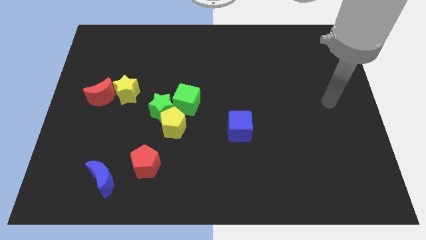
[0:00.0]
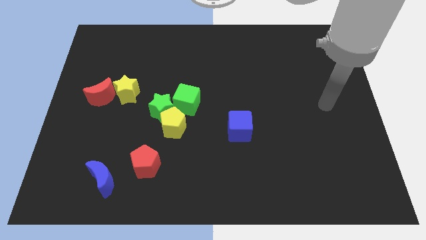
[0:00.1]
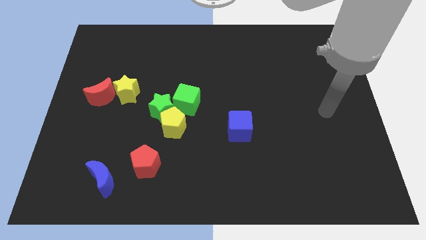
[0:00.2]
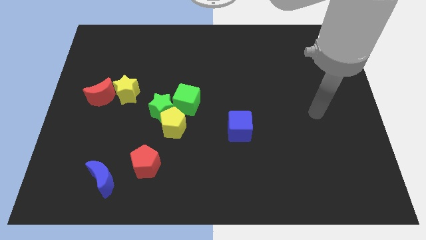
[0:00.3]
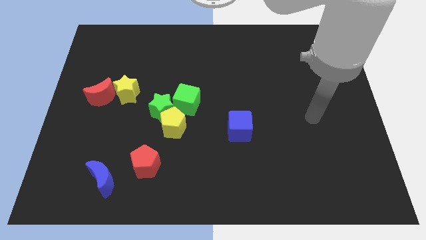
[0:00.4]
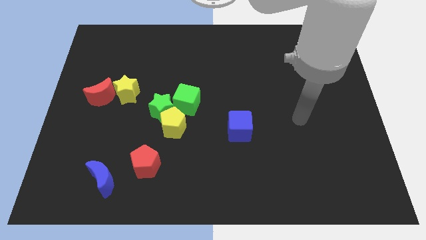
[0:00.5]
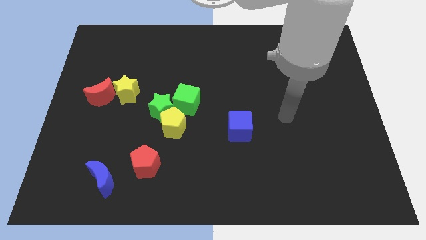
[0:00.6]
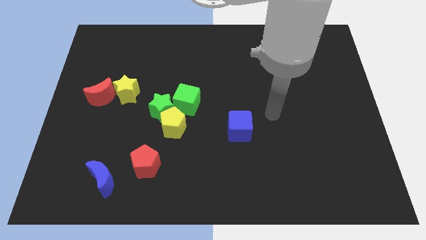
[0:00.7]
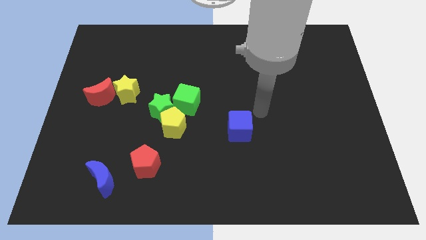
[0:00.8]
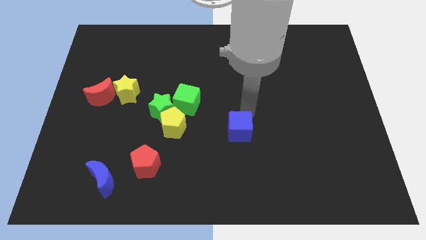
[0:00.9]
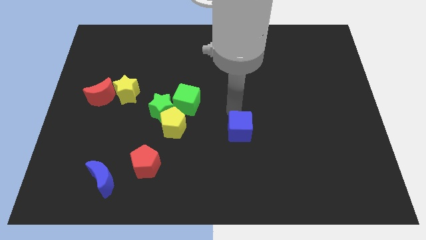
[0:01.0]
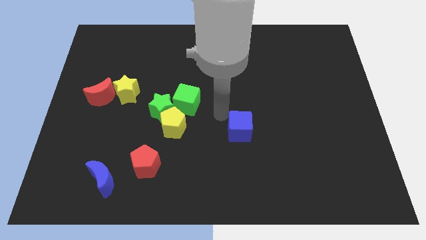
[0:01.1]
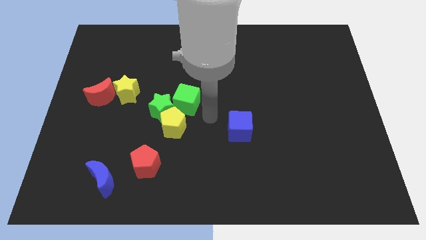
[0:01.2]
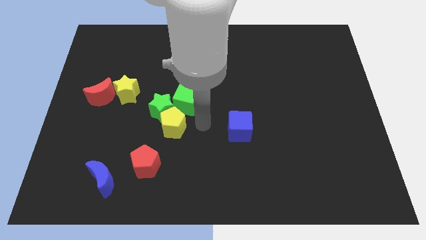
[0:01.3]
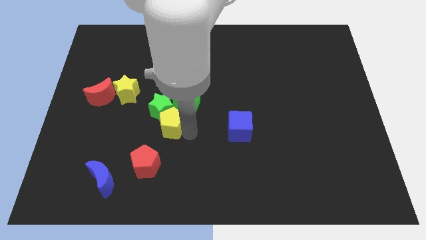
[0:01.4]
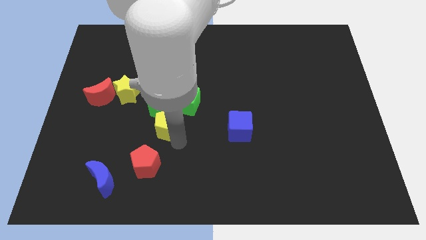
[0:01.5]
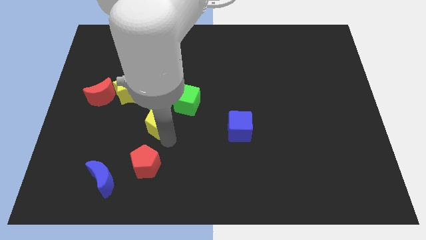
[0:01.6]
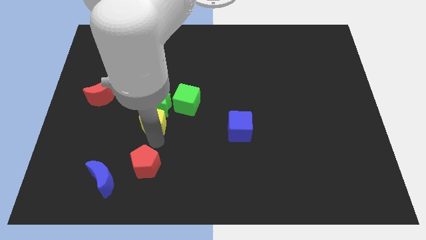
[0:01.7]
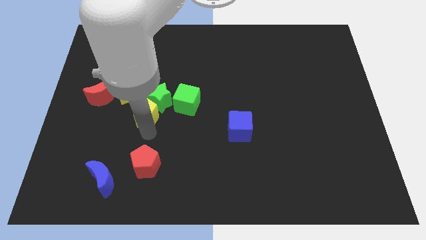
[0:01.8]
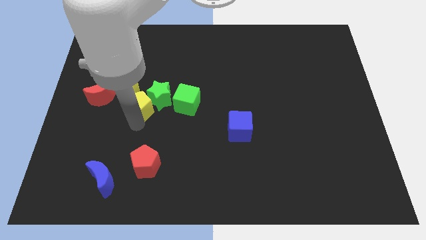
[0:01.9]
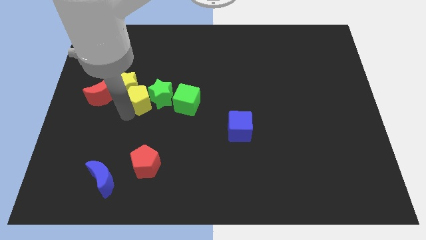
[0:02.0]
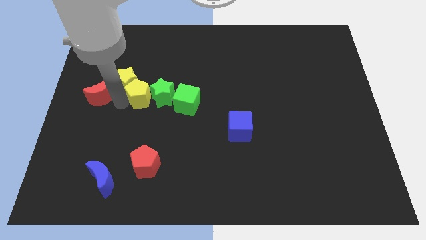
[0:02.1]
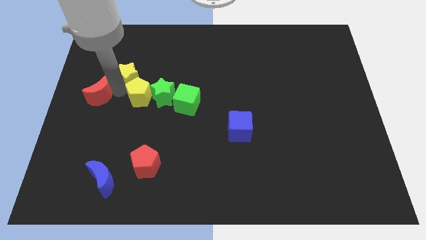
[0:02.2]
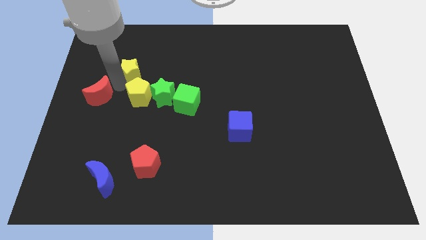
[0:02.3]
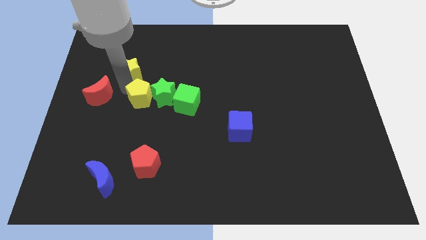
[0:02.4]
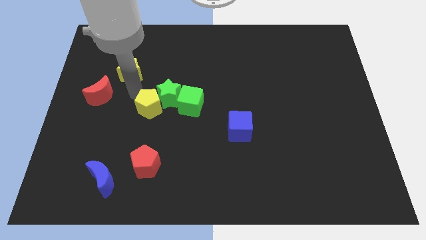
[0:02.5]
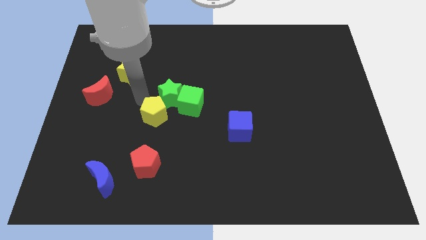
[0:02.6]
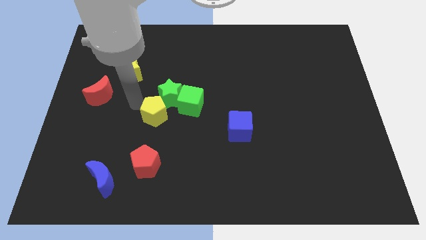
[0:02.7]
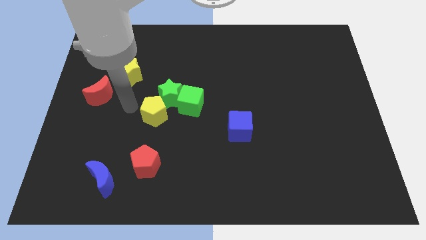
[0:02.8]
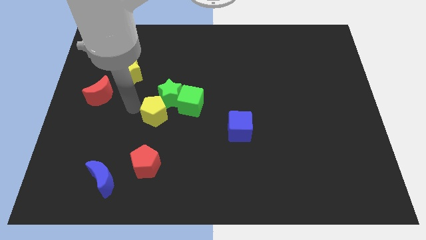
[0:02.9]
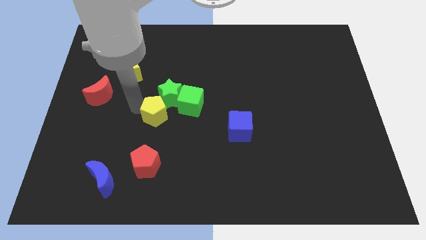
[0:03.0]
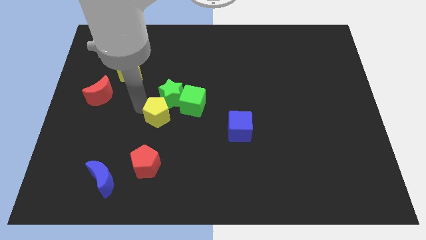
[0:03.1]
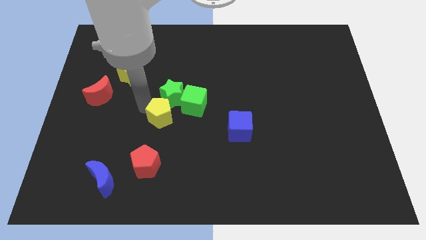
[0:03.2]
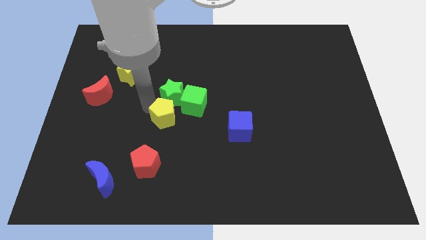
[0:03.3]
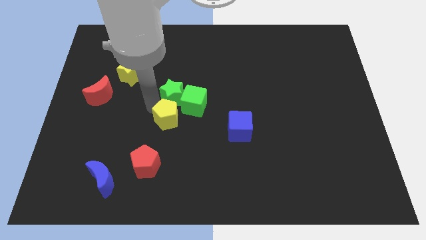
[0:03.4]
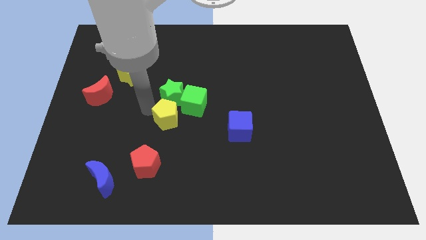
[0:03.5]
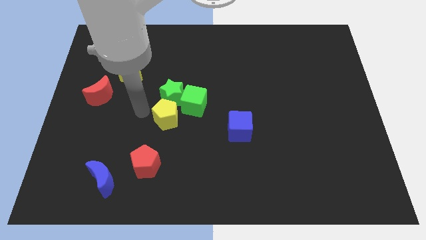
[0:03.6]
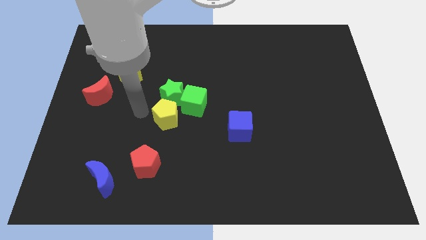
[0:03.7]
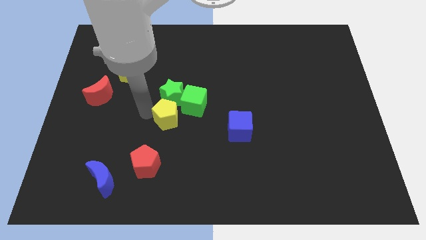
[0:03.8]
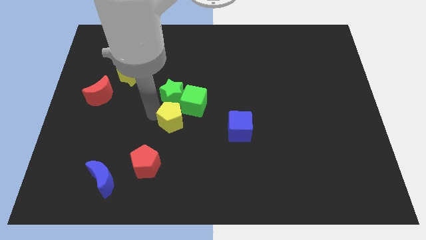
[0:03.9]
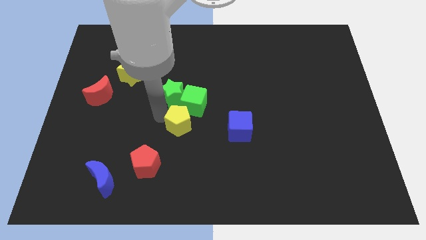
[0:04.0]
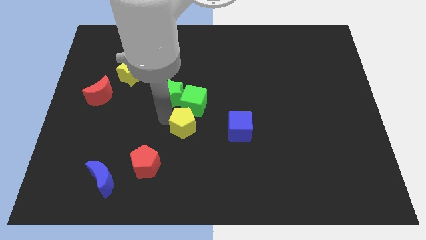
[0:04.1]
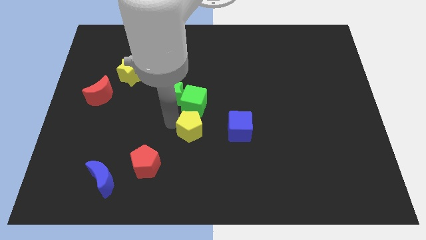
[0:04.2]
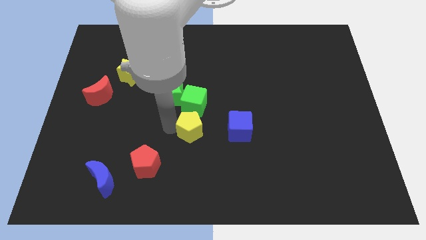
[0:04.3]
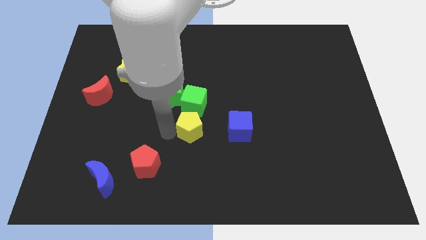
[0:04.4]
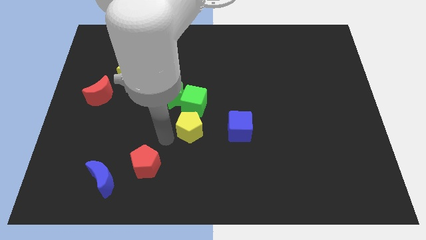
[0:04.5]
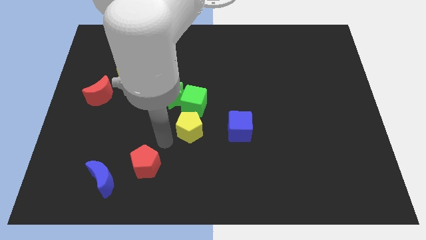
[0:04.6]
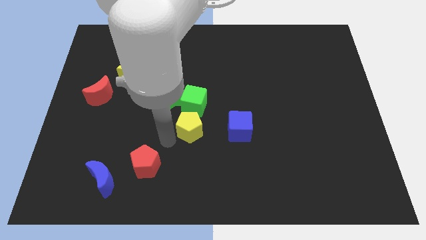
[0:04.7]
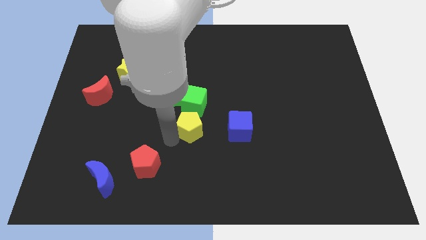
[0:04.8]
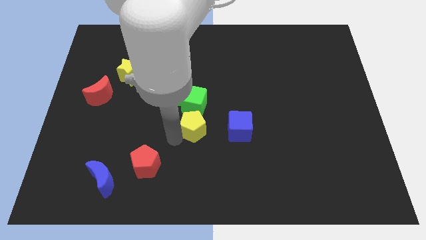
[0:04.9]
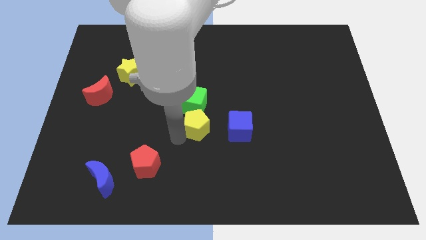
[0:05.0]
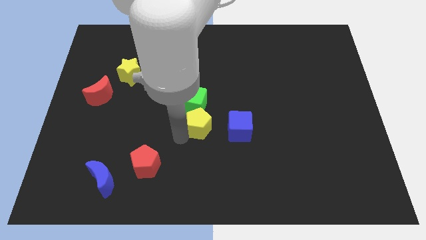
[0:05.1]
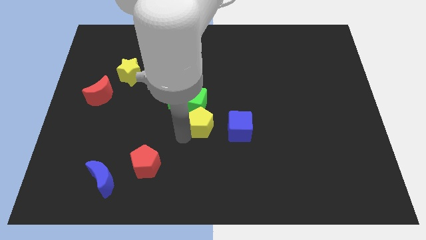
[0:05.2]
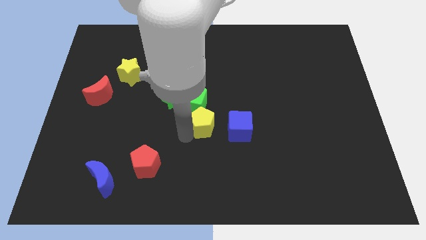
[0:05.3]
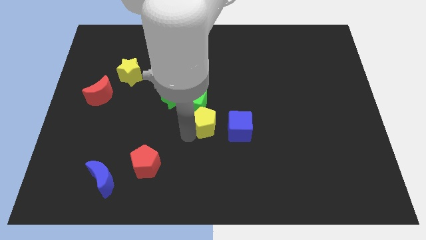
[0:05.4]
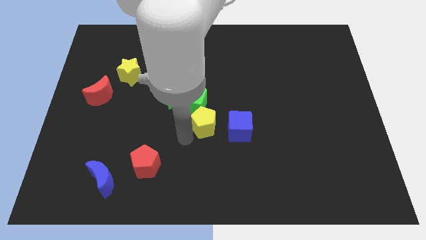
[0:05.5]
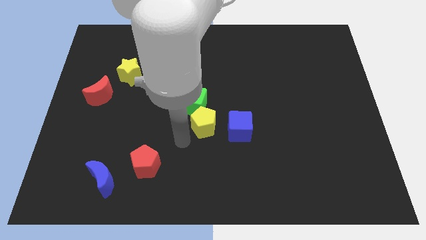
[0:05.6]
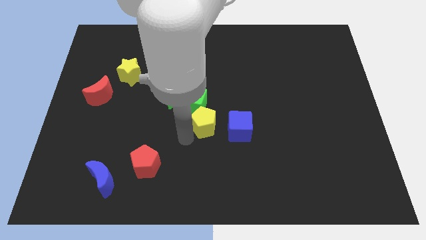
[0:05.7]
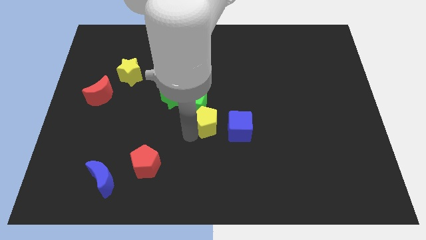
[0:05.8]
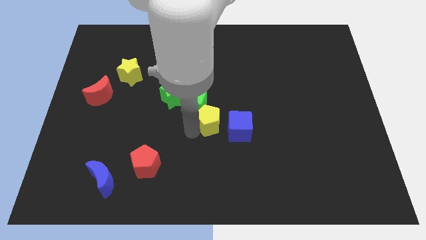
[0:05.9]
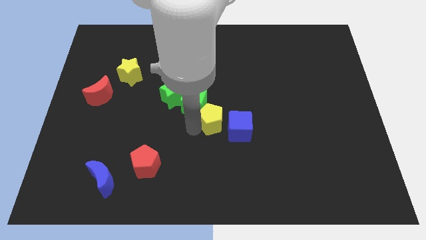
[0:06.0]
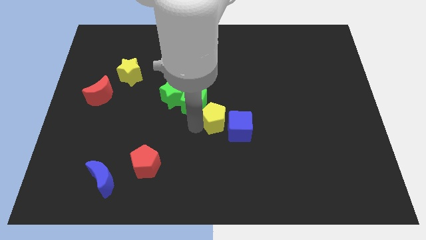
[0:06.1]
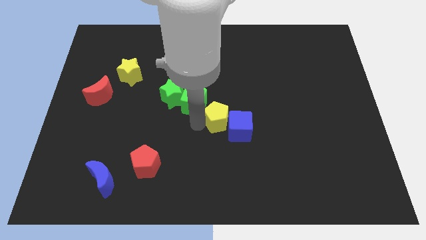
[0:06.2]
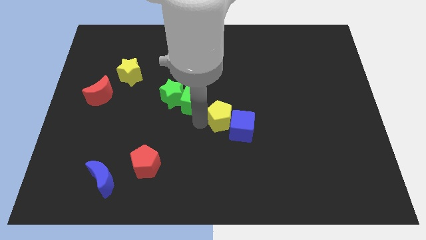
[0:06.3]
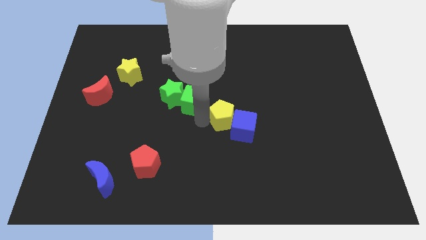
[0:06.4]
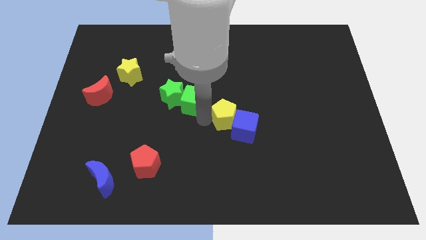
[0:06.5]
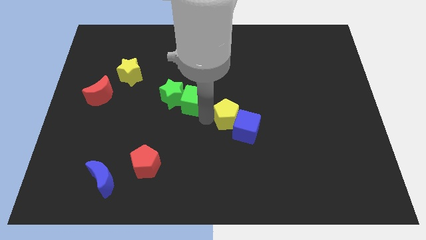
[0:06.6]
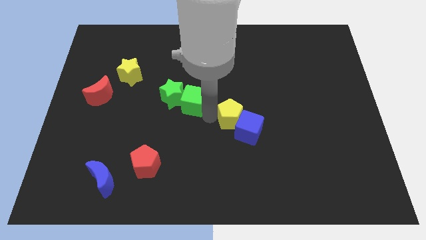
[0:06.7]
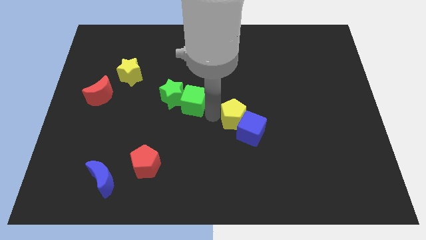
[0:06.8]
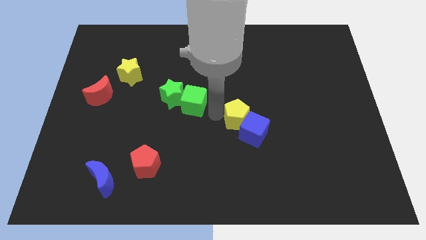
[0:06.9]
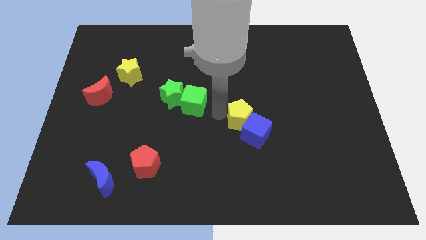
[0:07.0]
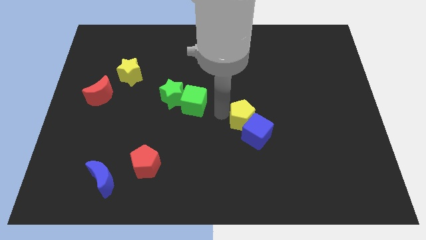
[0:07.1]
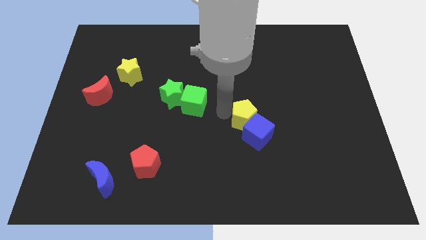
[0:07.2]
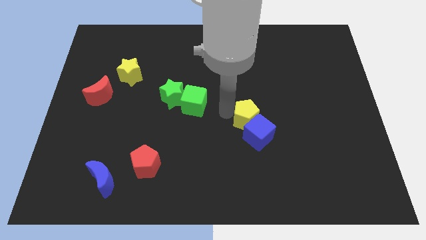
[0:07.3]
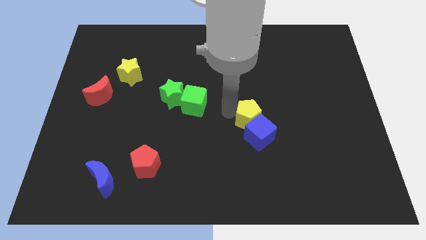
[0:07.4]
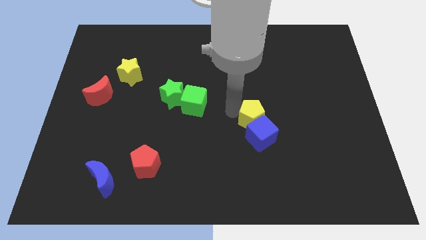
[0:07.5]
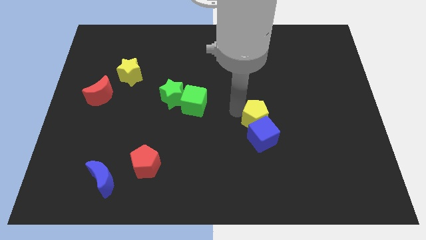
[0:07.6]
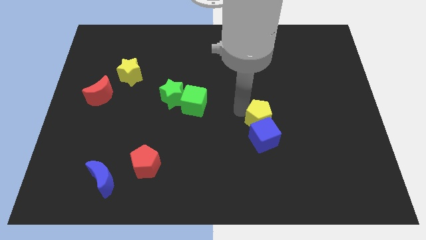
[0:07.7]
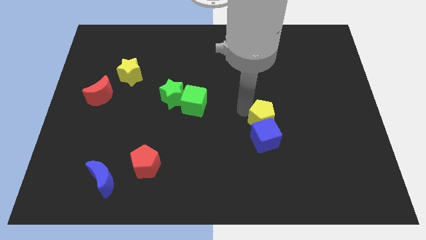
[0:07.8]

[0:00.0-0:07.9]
move the yellow pentagon right

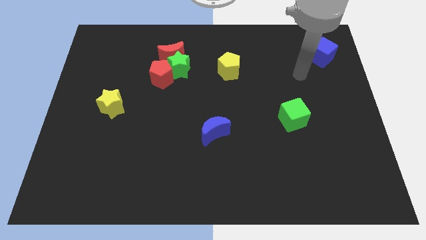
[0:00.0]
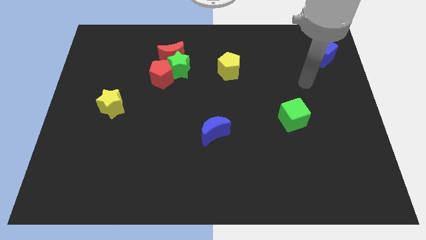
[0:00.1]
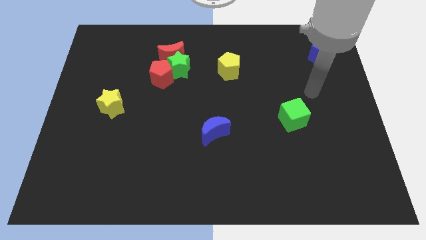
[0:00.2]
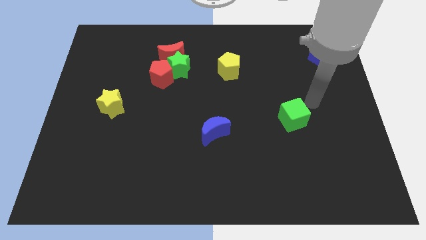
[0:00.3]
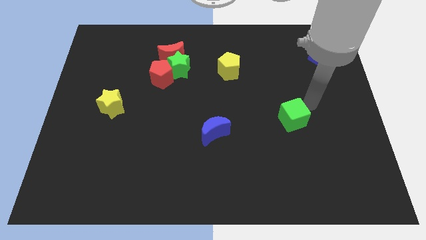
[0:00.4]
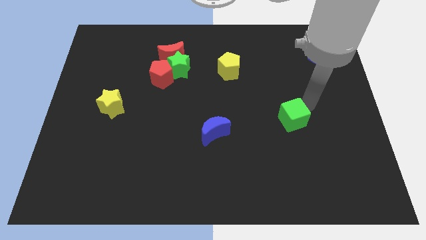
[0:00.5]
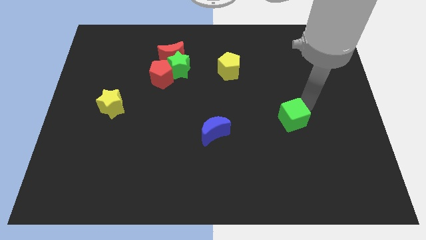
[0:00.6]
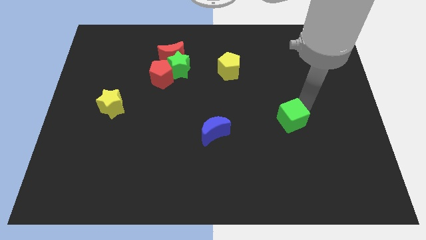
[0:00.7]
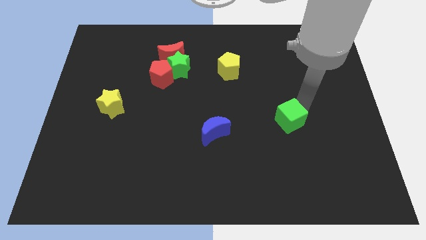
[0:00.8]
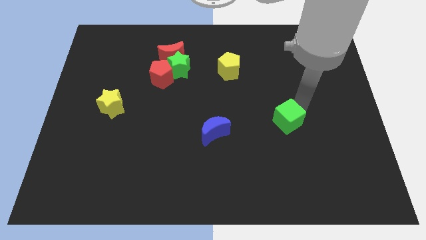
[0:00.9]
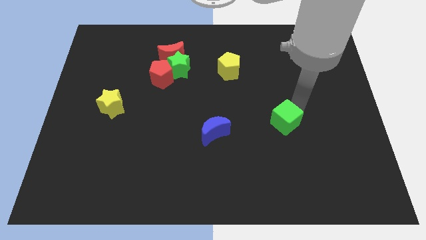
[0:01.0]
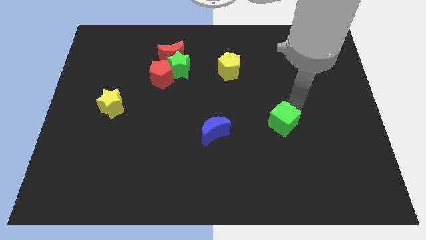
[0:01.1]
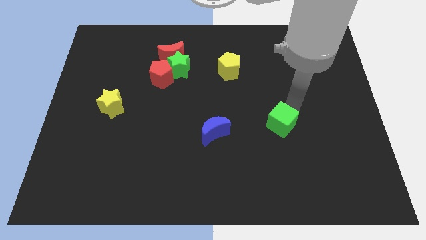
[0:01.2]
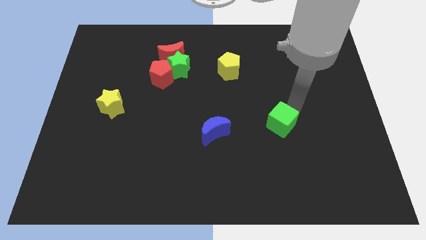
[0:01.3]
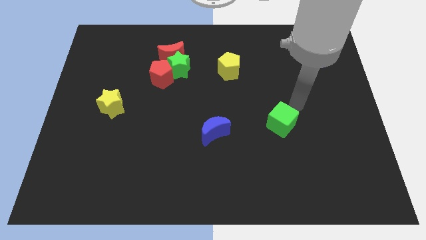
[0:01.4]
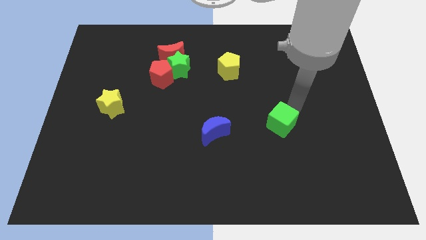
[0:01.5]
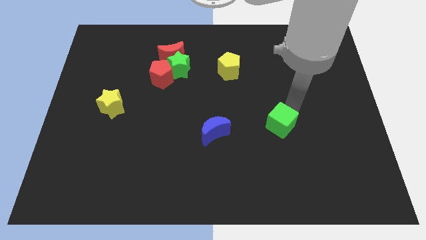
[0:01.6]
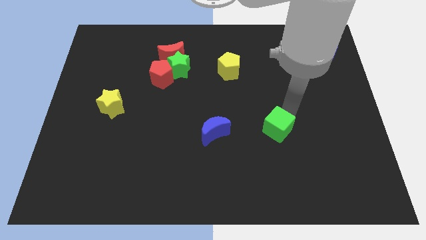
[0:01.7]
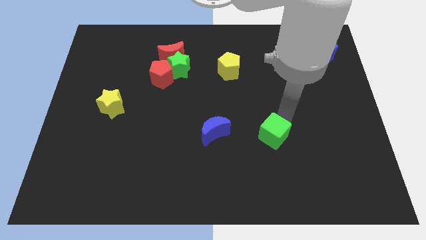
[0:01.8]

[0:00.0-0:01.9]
slightly push the green cube diagonally downwards and left
